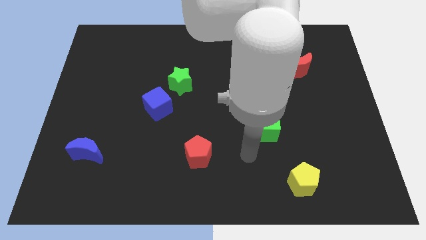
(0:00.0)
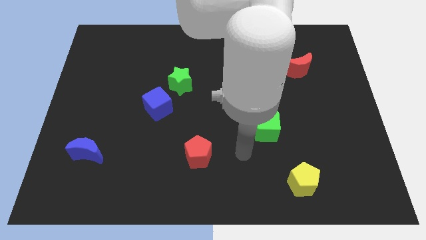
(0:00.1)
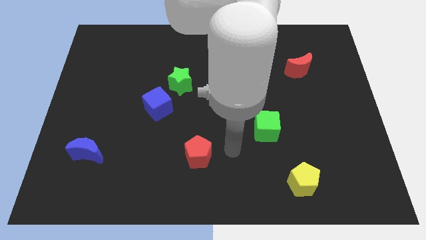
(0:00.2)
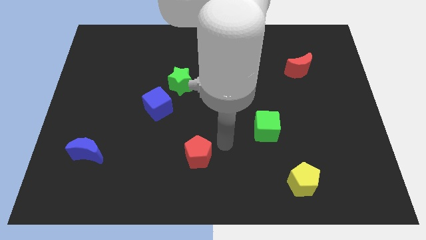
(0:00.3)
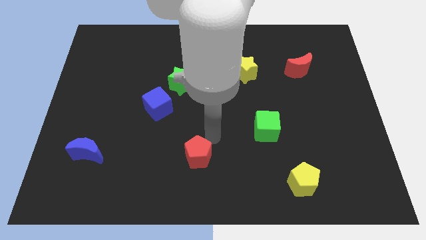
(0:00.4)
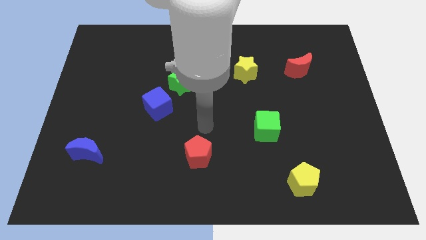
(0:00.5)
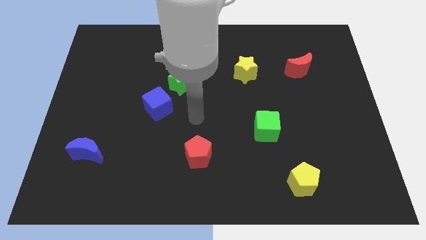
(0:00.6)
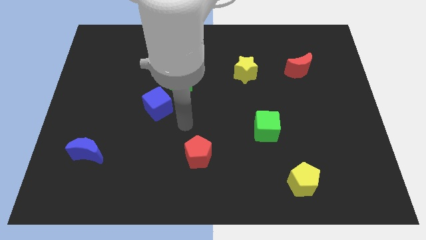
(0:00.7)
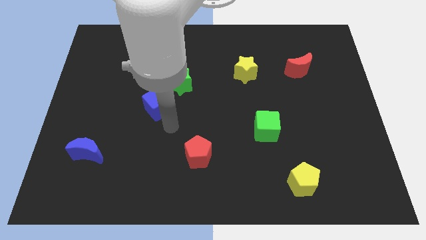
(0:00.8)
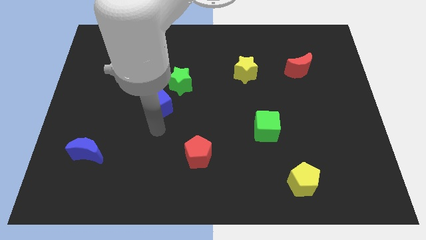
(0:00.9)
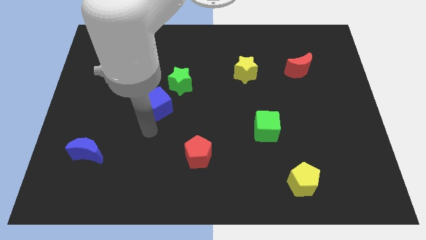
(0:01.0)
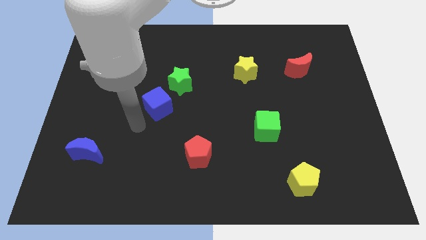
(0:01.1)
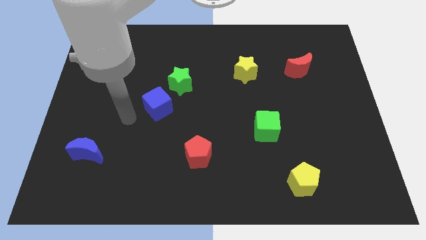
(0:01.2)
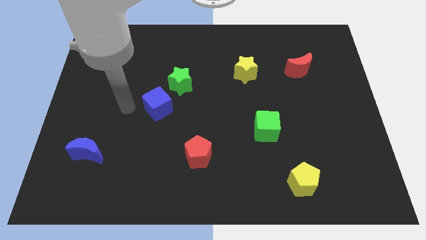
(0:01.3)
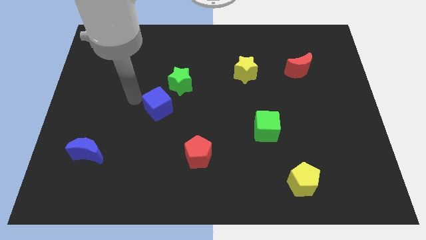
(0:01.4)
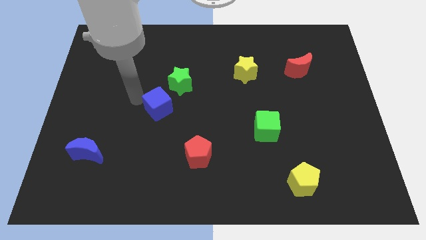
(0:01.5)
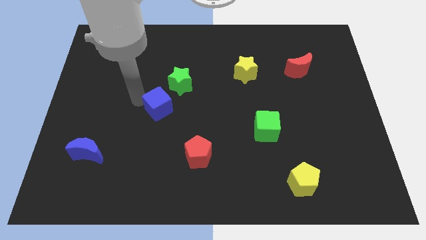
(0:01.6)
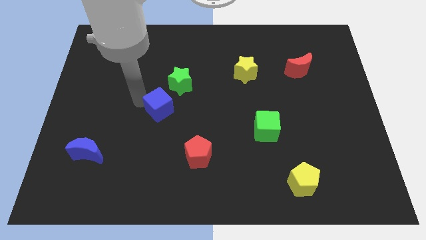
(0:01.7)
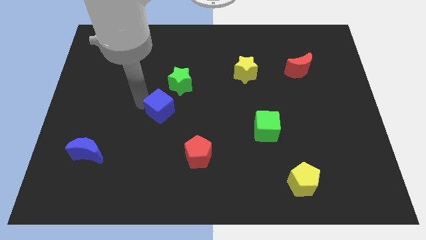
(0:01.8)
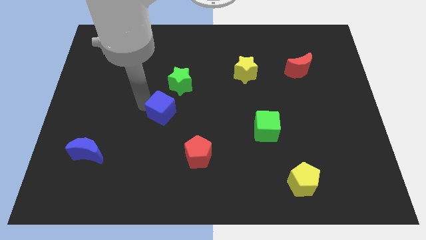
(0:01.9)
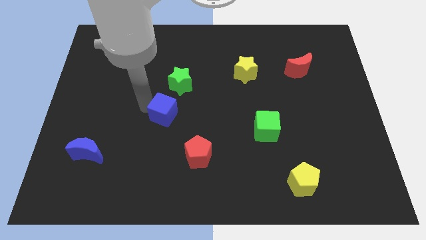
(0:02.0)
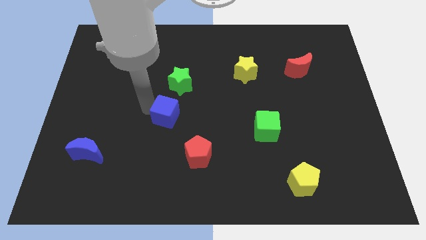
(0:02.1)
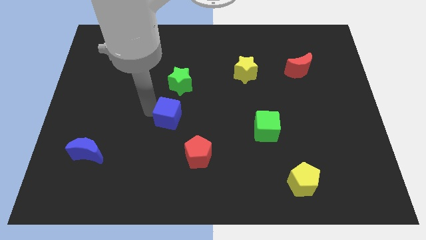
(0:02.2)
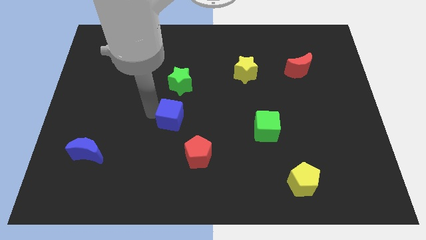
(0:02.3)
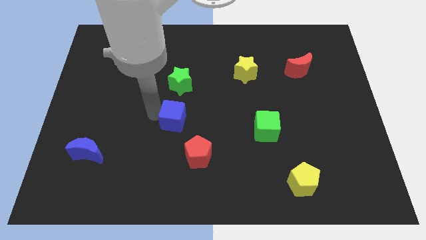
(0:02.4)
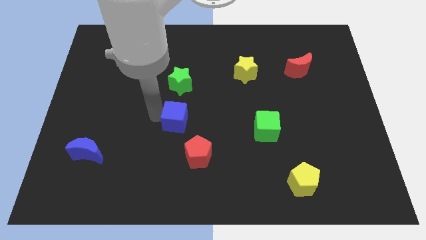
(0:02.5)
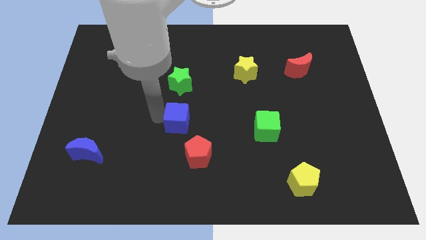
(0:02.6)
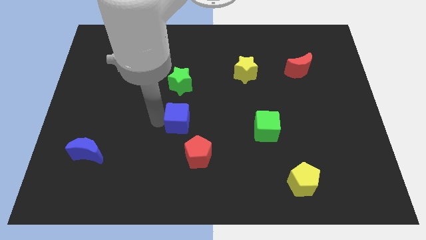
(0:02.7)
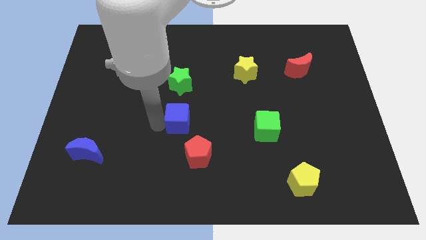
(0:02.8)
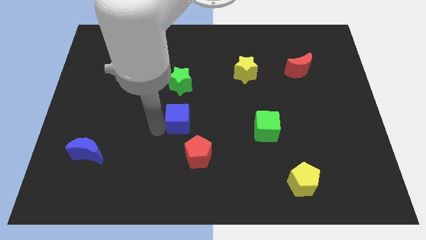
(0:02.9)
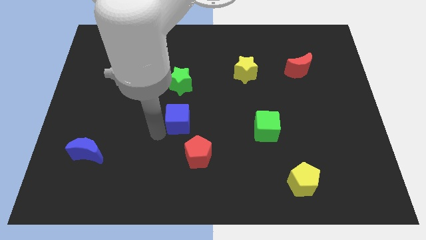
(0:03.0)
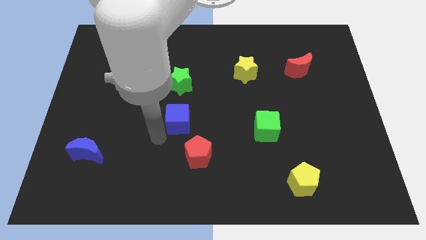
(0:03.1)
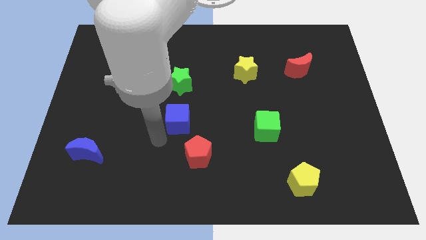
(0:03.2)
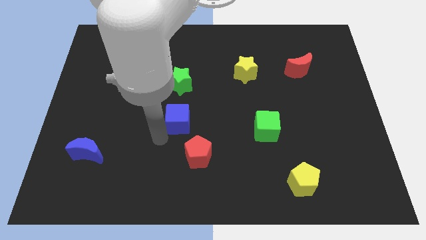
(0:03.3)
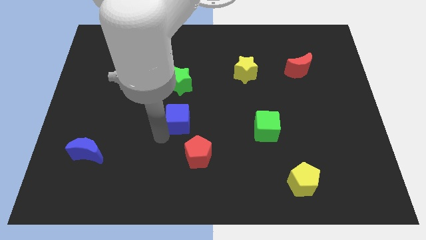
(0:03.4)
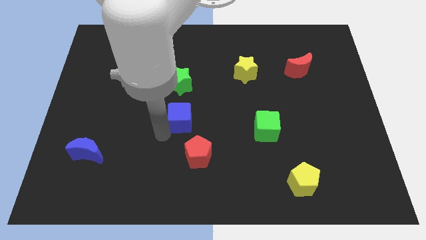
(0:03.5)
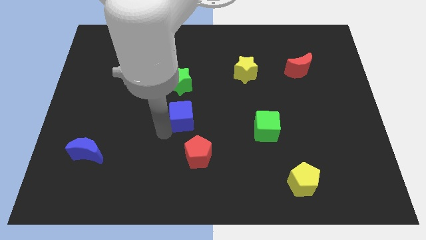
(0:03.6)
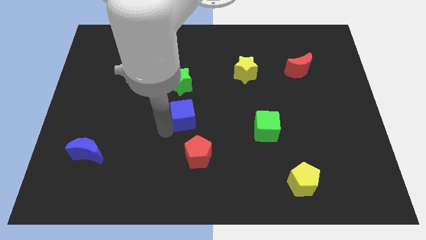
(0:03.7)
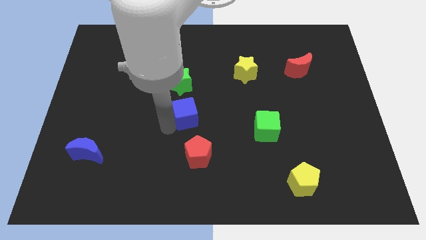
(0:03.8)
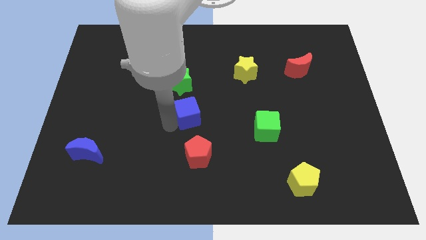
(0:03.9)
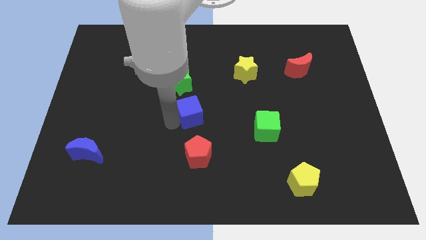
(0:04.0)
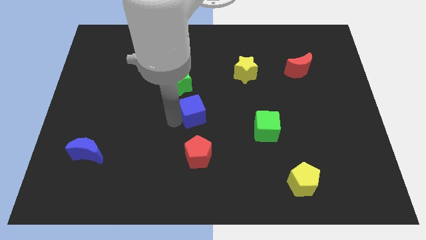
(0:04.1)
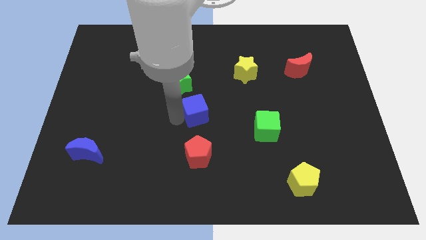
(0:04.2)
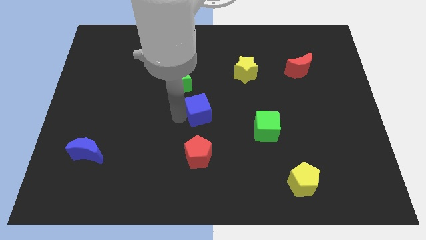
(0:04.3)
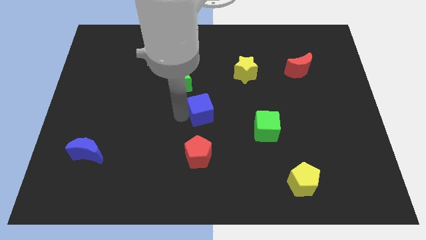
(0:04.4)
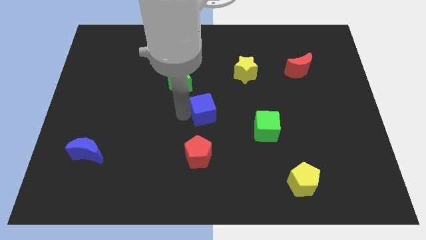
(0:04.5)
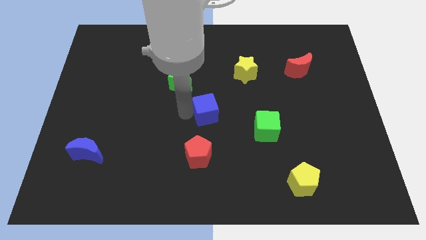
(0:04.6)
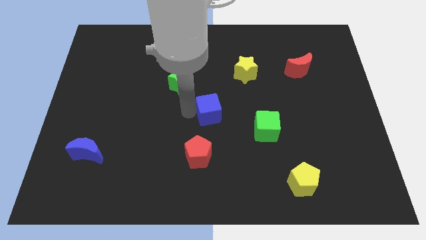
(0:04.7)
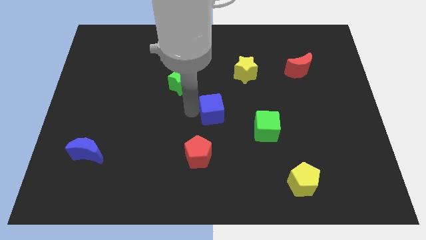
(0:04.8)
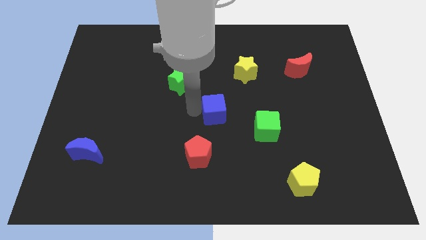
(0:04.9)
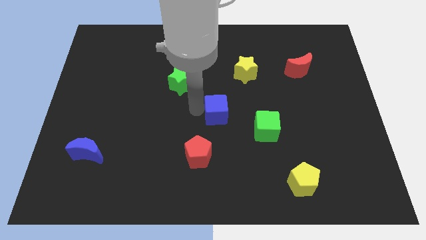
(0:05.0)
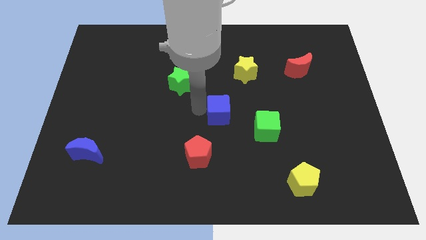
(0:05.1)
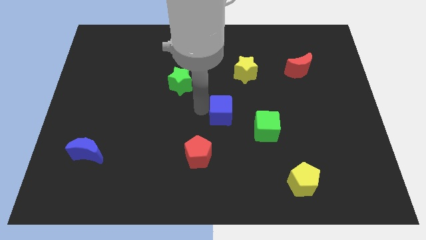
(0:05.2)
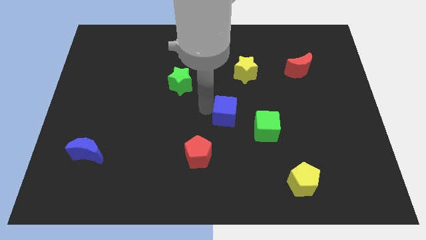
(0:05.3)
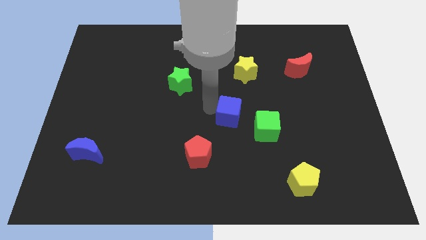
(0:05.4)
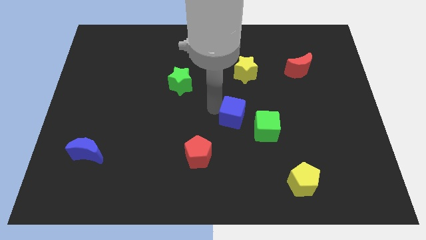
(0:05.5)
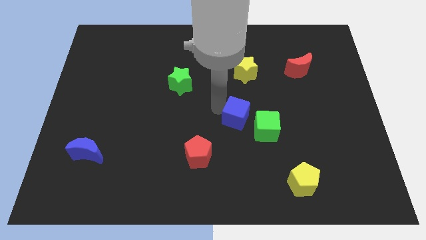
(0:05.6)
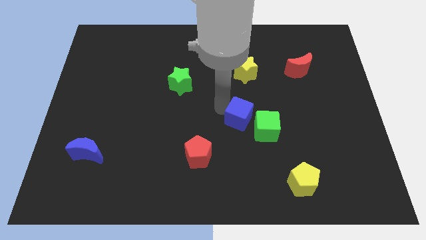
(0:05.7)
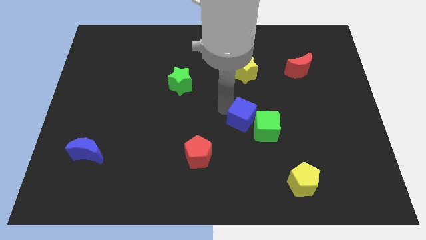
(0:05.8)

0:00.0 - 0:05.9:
push the blue cube to the green cube

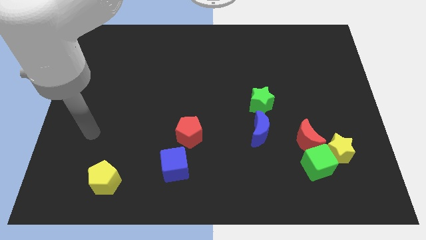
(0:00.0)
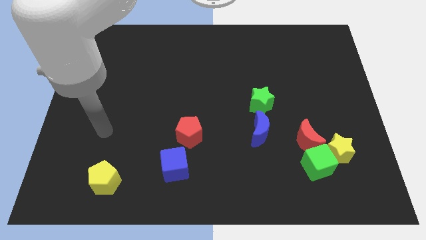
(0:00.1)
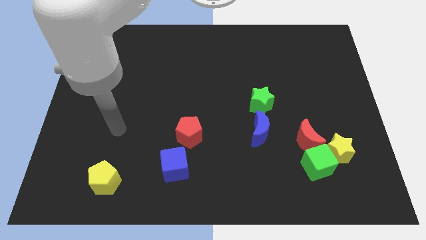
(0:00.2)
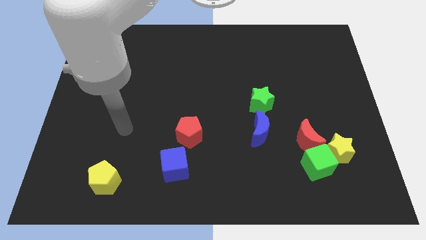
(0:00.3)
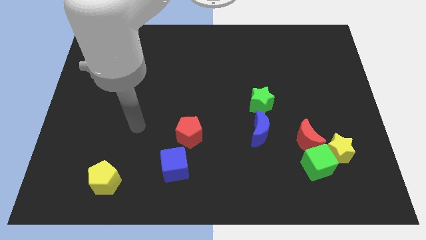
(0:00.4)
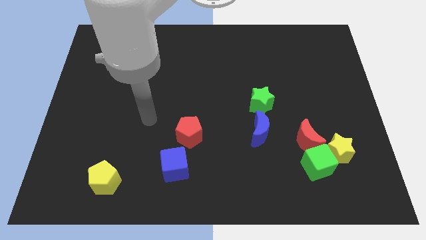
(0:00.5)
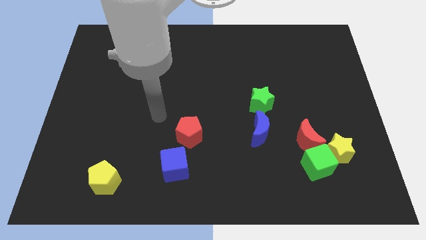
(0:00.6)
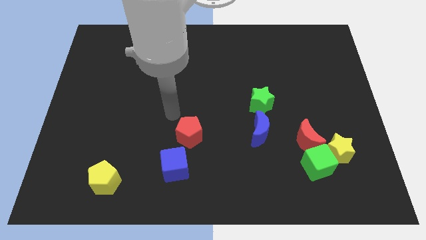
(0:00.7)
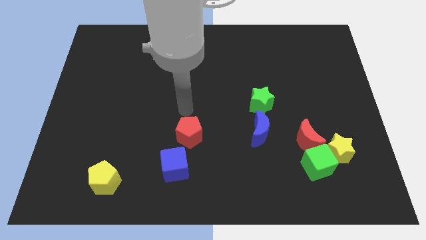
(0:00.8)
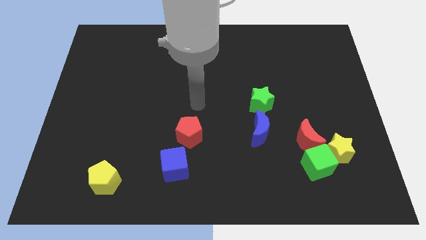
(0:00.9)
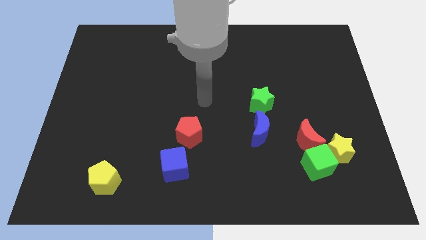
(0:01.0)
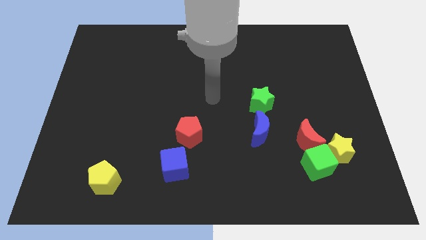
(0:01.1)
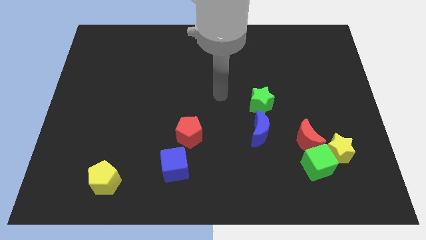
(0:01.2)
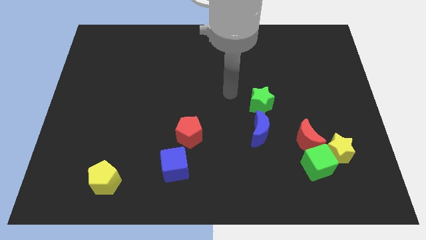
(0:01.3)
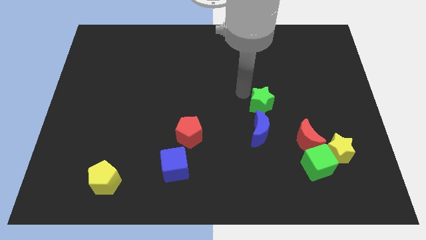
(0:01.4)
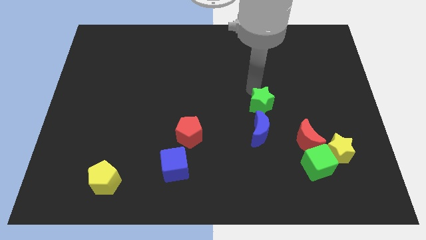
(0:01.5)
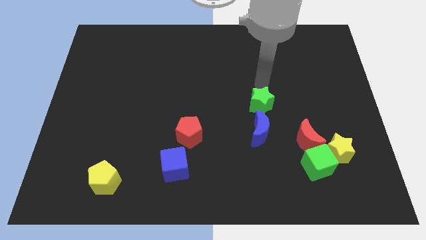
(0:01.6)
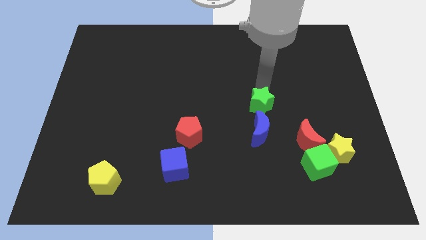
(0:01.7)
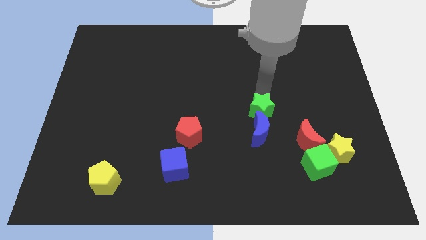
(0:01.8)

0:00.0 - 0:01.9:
move the green star to the blue moon
